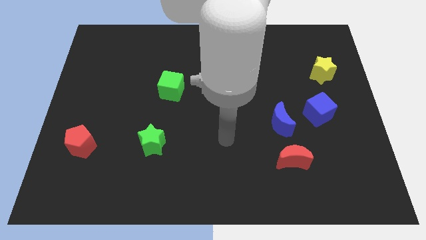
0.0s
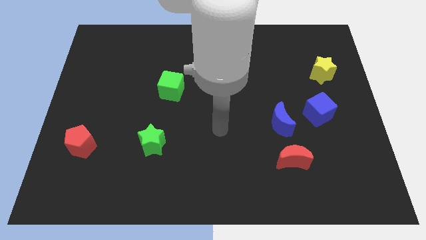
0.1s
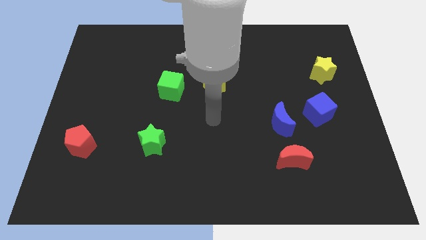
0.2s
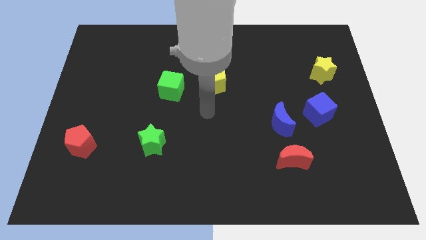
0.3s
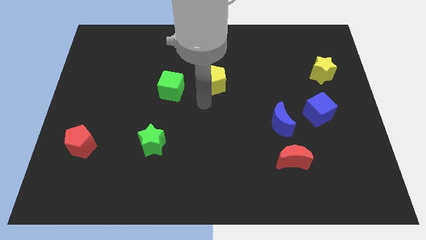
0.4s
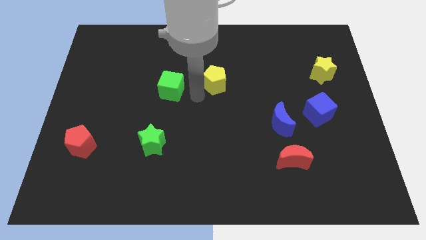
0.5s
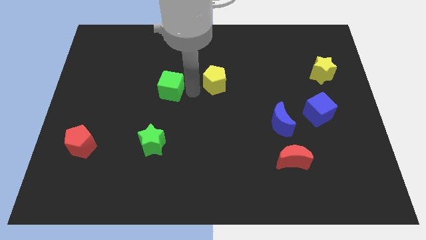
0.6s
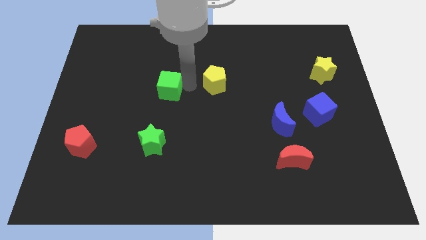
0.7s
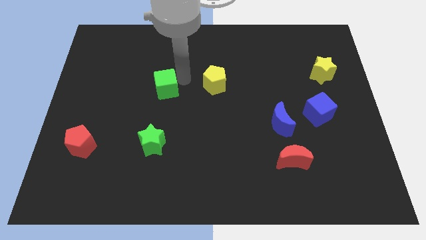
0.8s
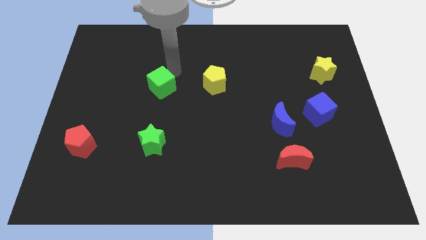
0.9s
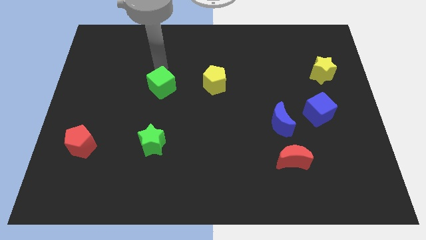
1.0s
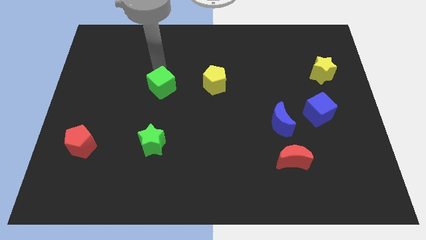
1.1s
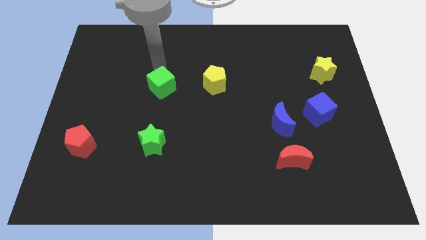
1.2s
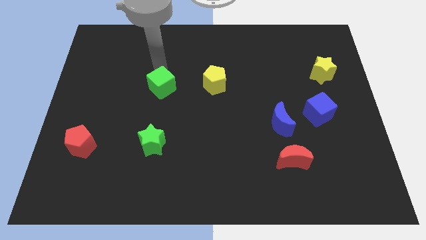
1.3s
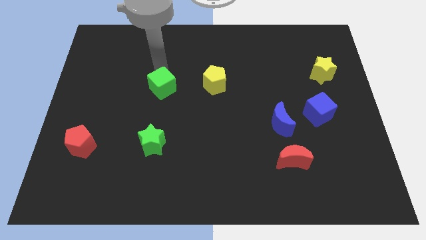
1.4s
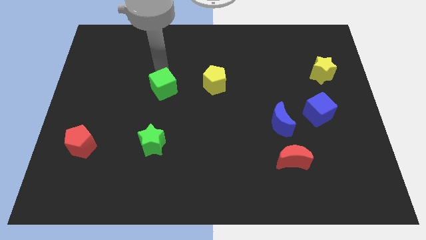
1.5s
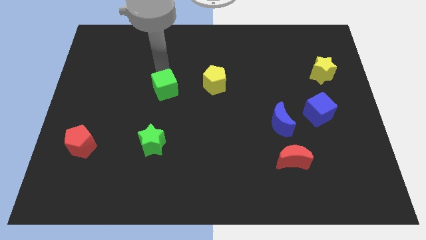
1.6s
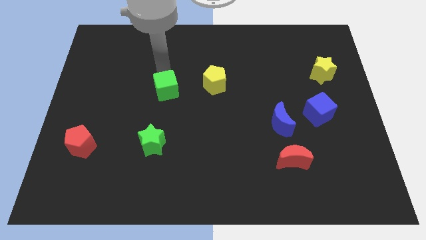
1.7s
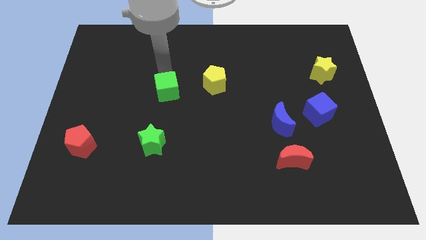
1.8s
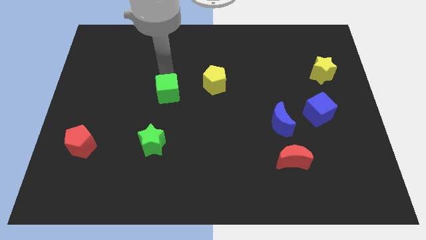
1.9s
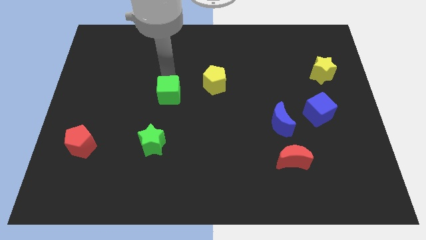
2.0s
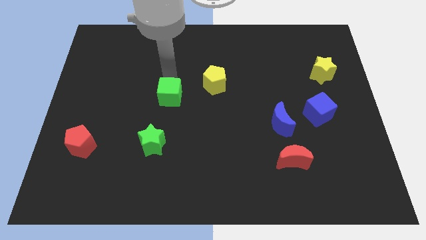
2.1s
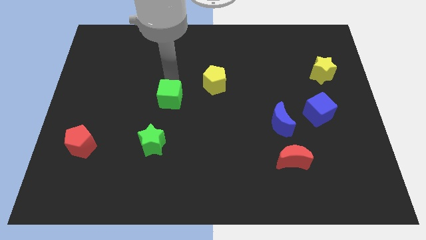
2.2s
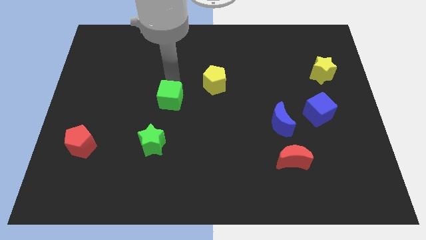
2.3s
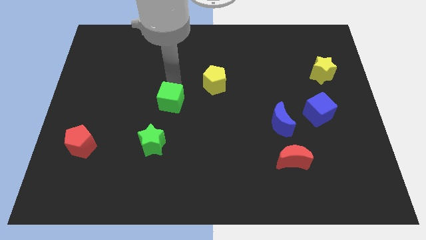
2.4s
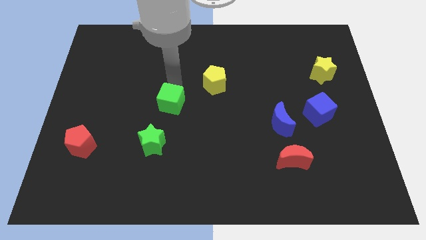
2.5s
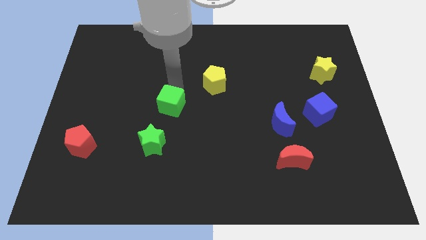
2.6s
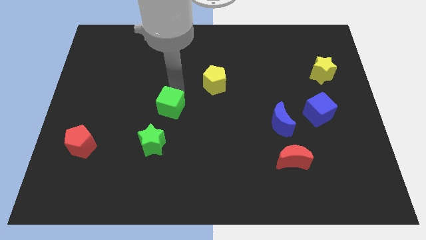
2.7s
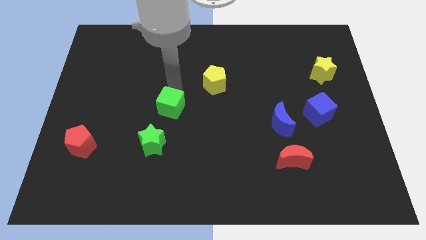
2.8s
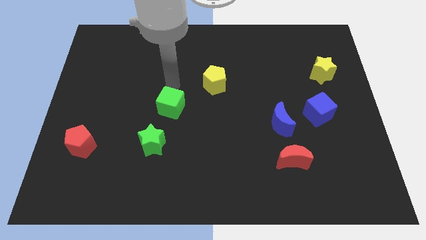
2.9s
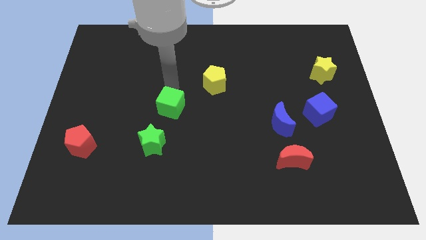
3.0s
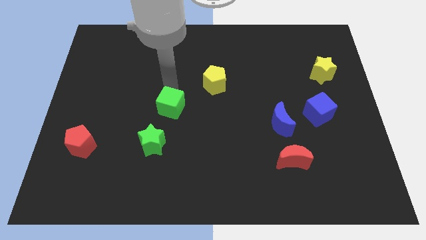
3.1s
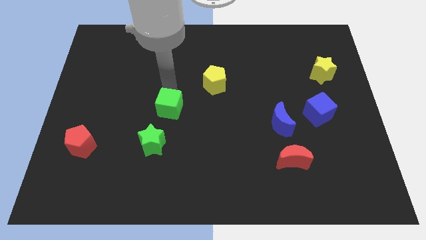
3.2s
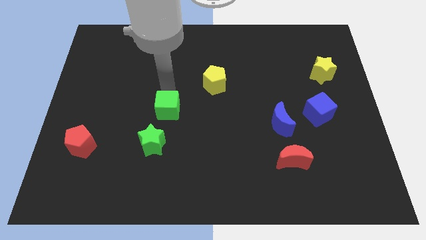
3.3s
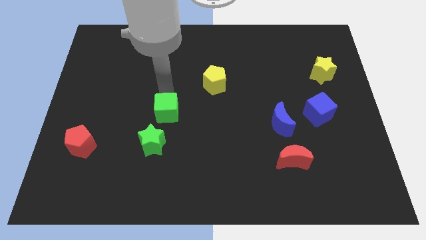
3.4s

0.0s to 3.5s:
slide the green cube slightly down

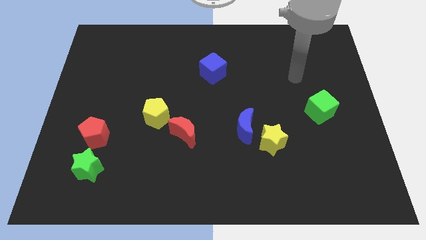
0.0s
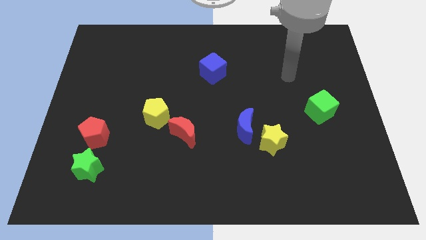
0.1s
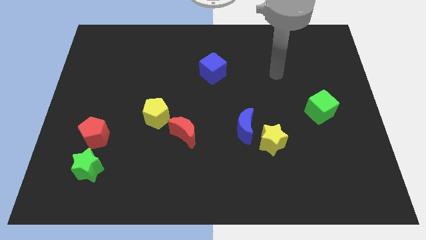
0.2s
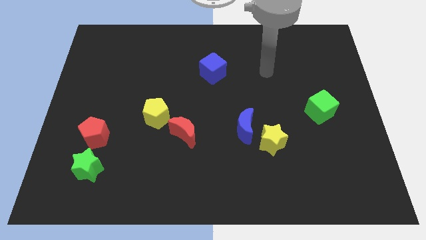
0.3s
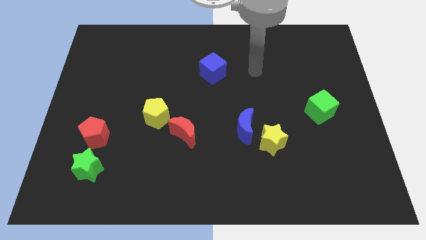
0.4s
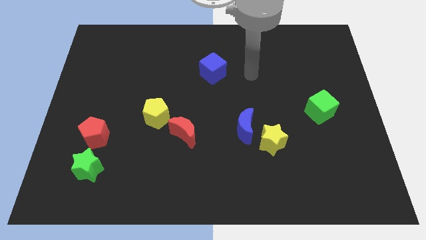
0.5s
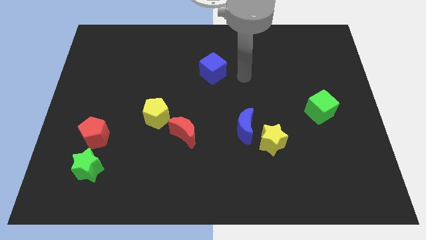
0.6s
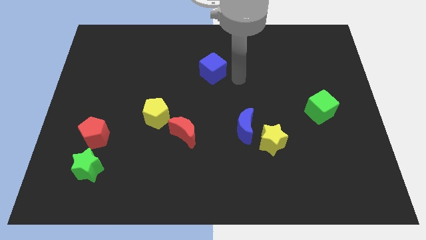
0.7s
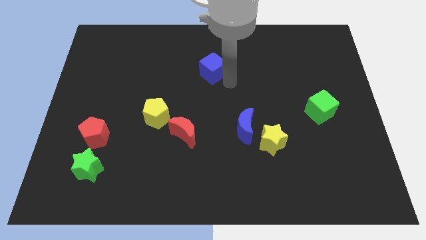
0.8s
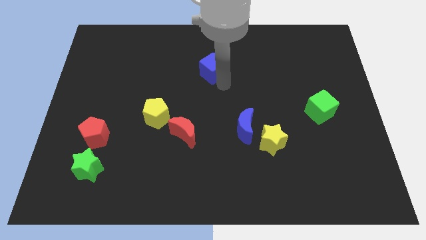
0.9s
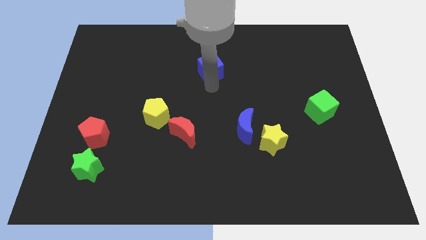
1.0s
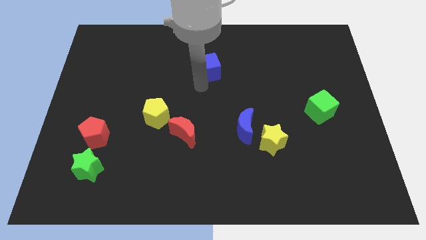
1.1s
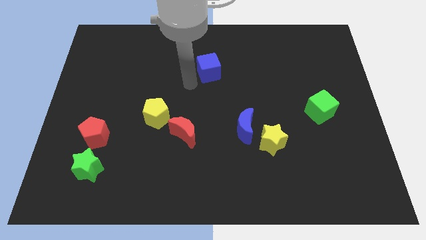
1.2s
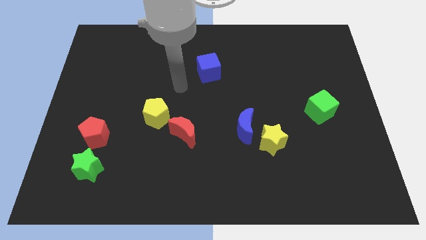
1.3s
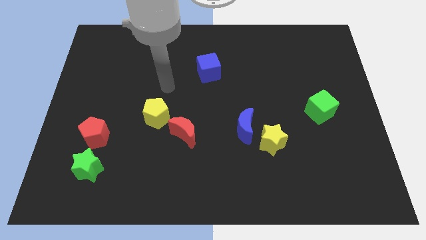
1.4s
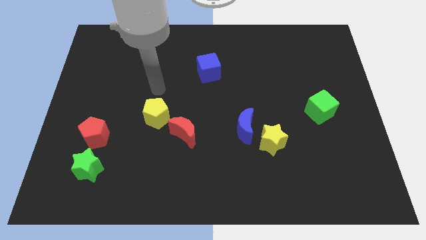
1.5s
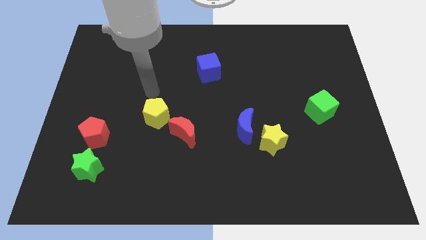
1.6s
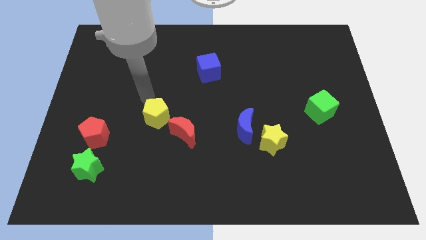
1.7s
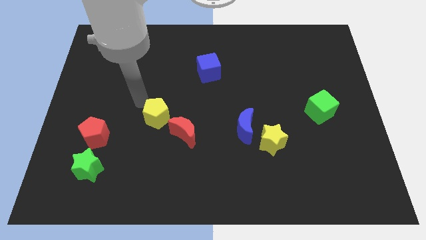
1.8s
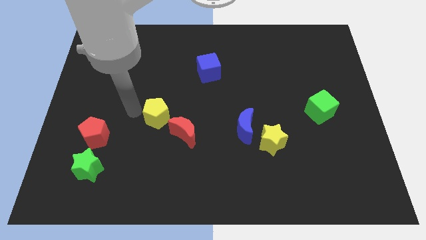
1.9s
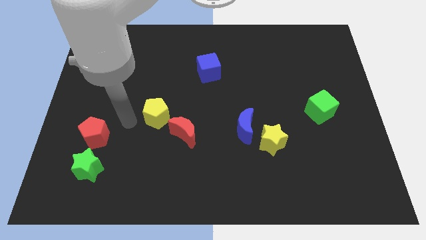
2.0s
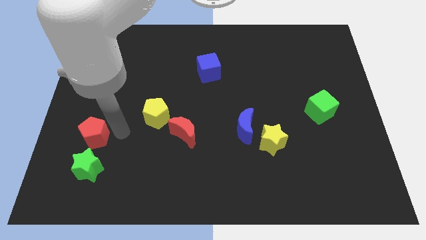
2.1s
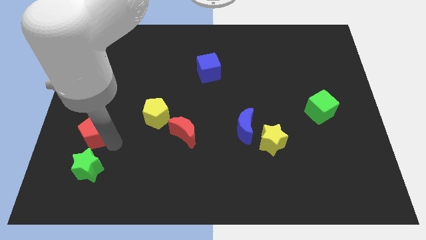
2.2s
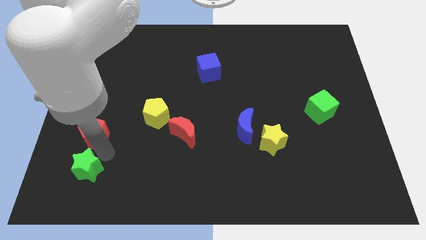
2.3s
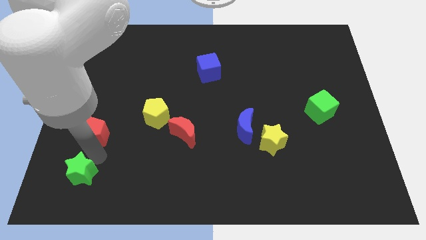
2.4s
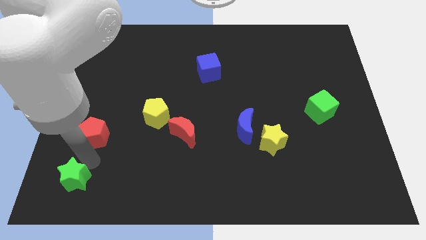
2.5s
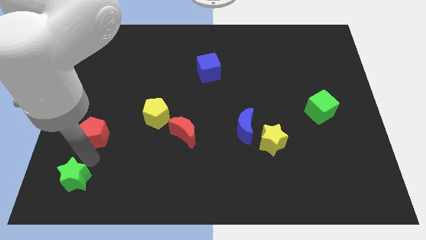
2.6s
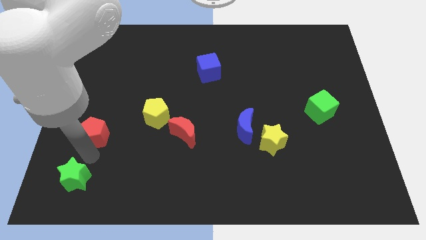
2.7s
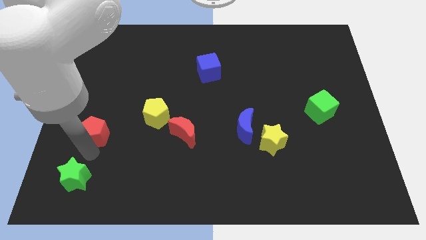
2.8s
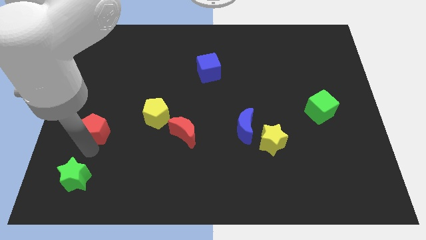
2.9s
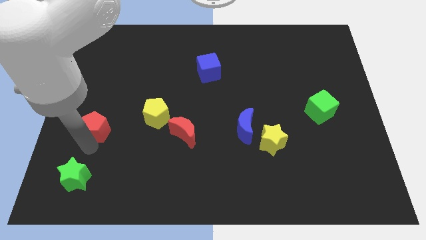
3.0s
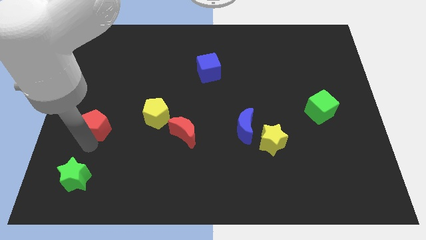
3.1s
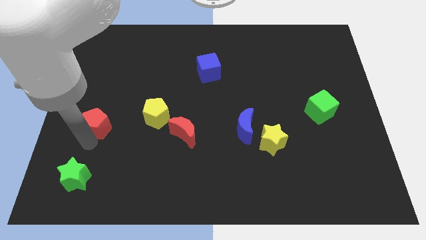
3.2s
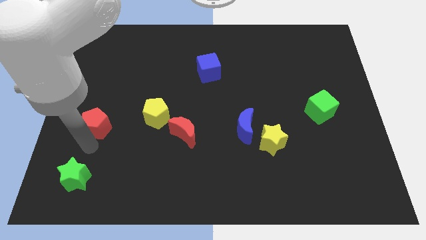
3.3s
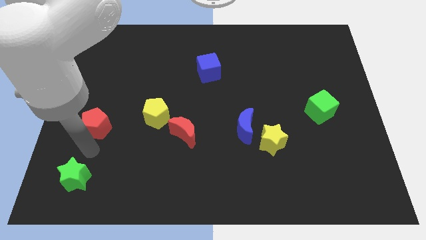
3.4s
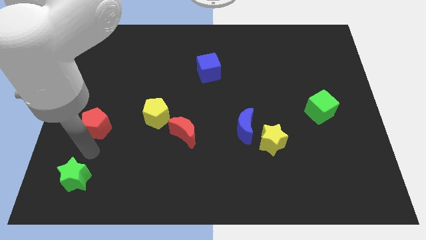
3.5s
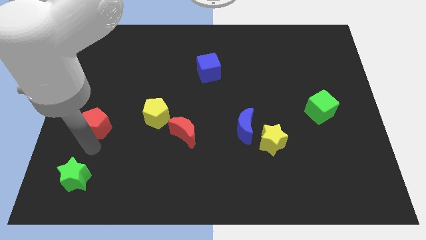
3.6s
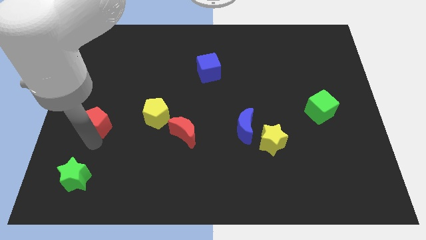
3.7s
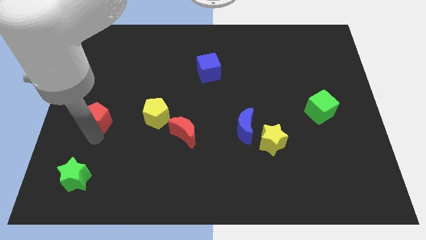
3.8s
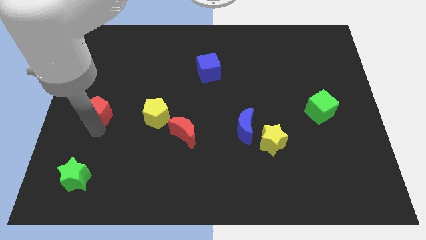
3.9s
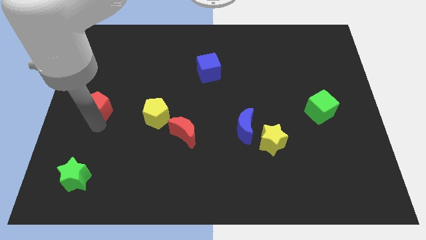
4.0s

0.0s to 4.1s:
slightly move the red pentagon up

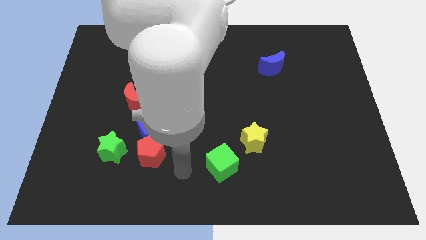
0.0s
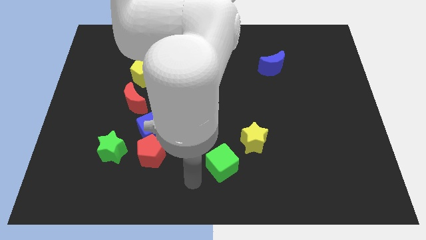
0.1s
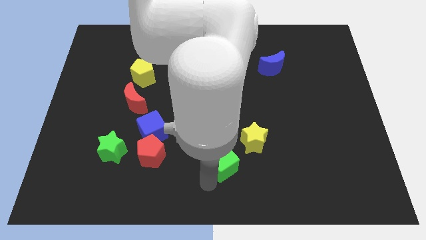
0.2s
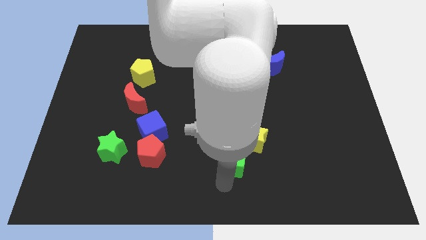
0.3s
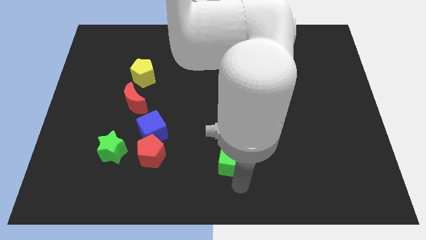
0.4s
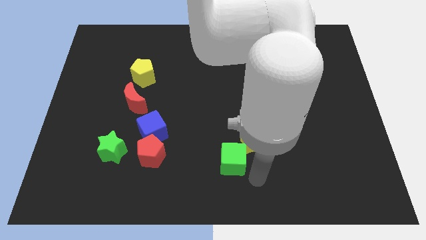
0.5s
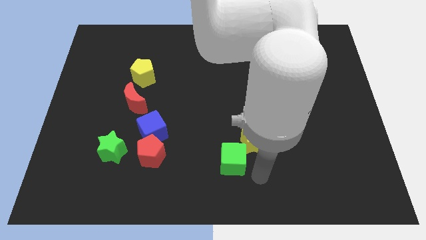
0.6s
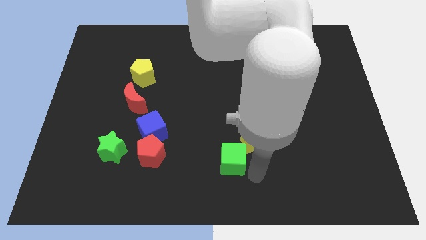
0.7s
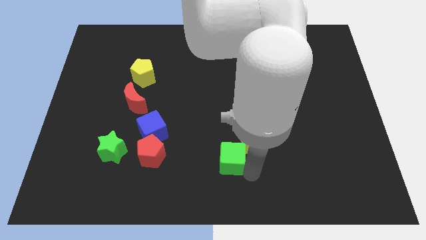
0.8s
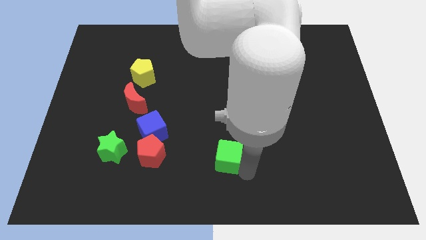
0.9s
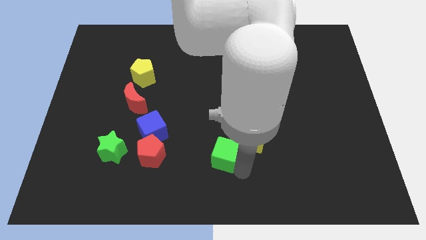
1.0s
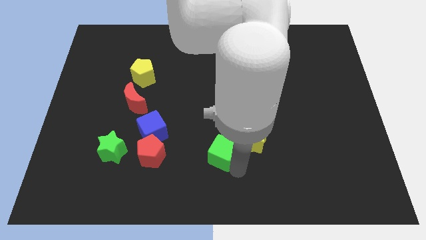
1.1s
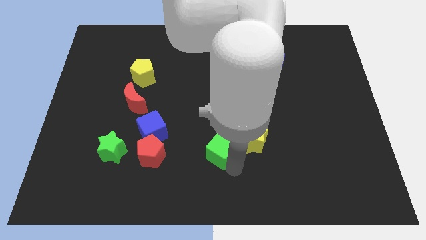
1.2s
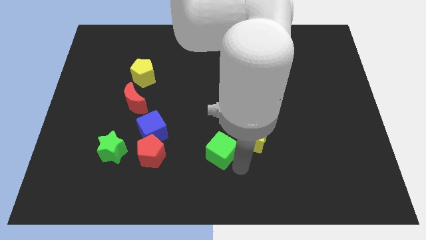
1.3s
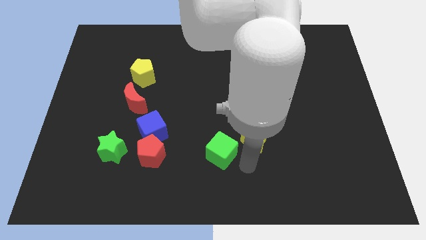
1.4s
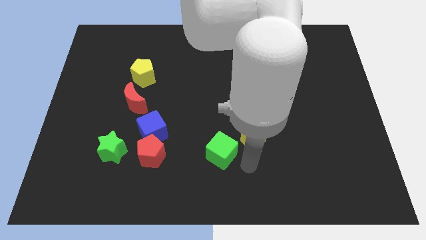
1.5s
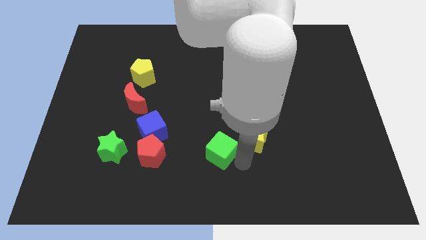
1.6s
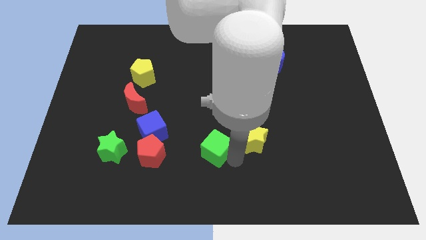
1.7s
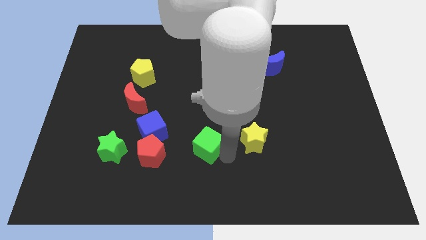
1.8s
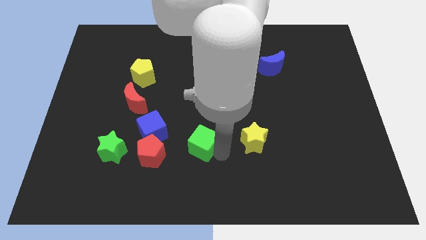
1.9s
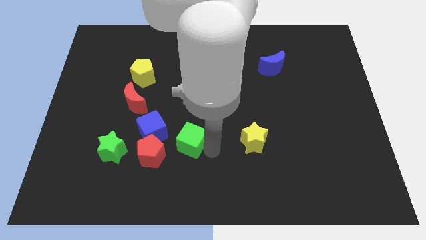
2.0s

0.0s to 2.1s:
slide the green cube a bit up and to the left
